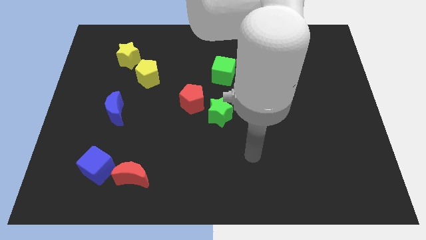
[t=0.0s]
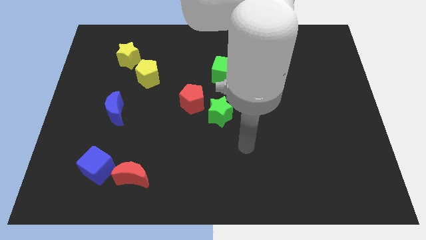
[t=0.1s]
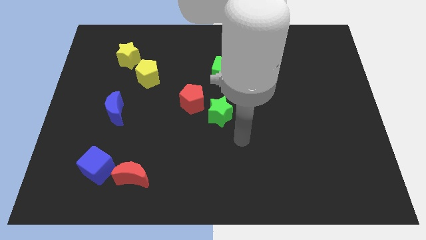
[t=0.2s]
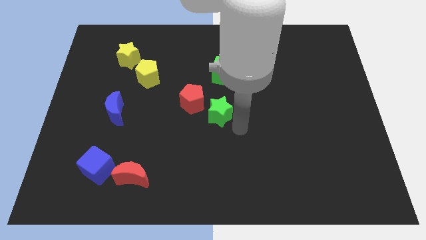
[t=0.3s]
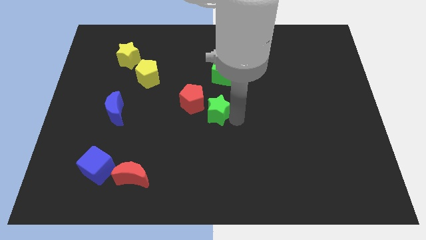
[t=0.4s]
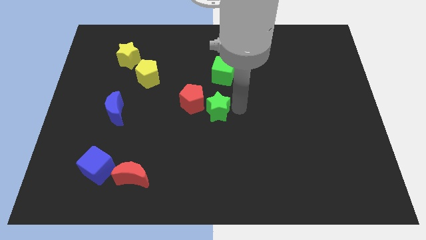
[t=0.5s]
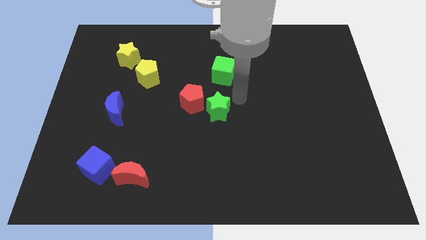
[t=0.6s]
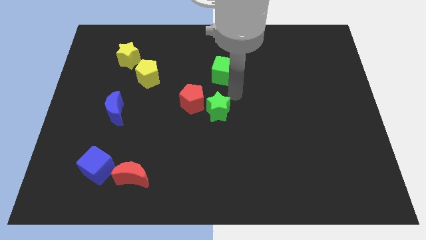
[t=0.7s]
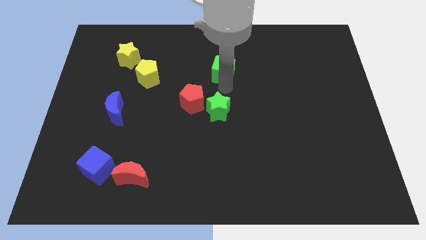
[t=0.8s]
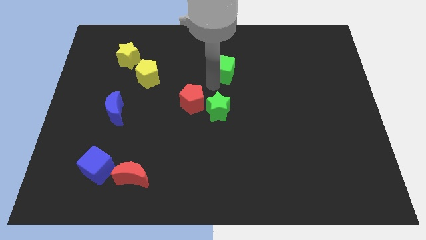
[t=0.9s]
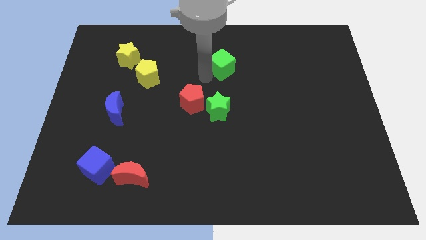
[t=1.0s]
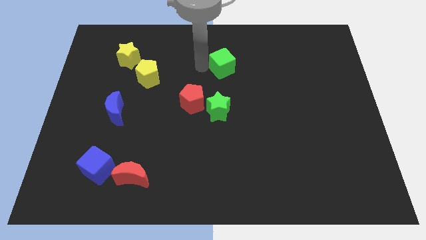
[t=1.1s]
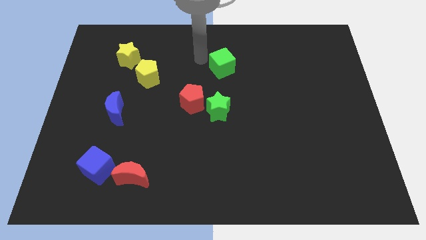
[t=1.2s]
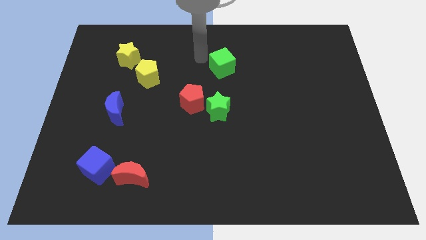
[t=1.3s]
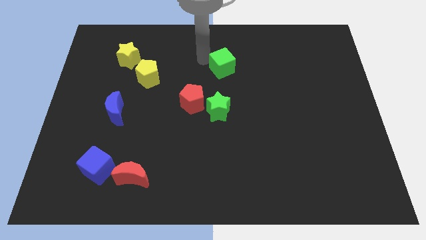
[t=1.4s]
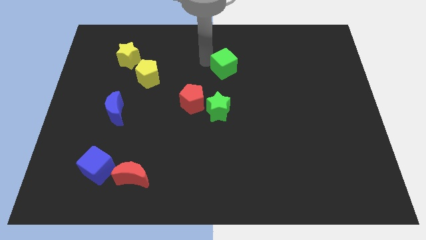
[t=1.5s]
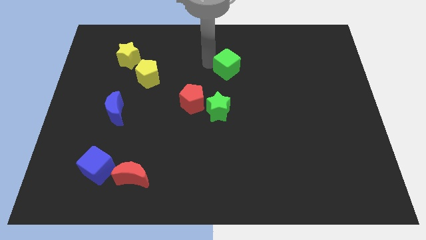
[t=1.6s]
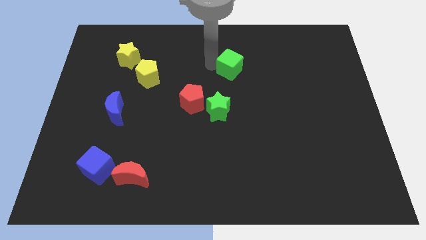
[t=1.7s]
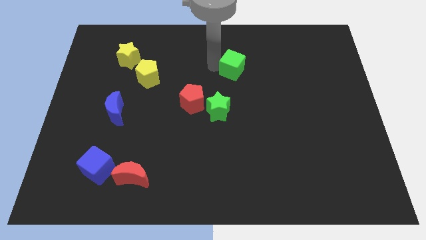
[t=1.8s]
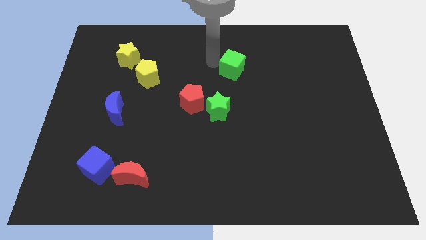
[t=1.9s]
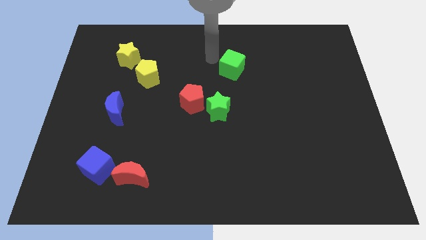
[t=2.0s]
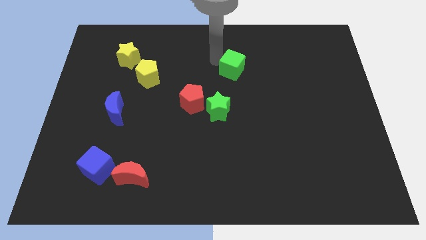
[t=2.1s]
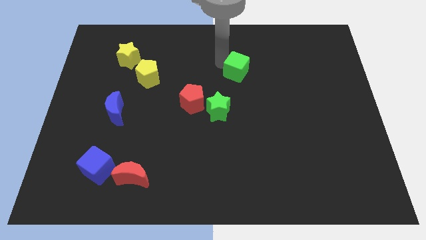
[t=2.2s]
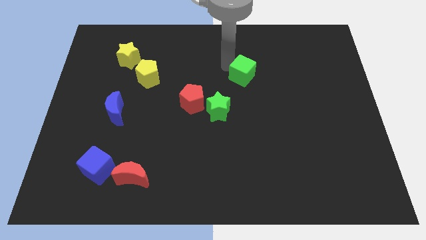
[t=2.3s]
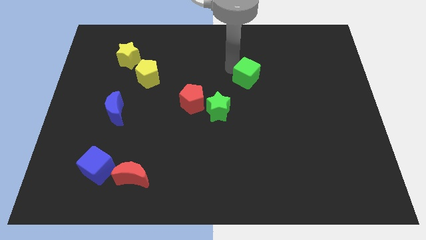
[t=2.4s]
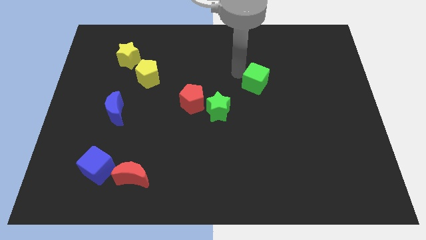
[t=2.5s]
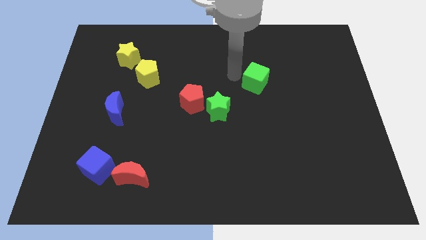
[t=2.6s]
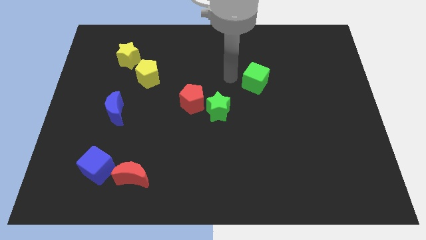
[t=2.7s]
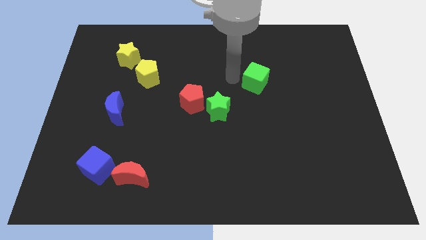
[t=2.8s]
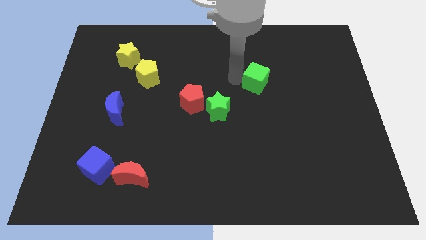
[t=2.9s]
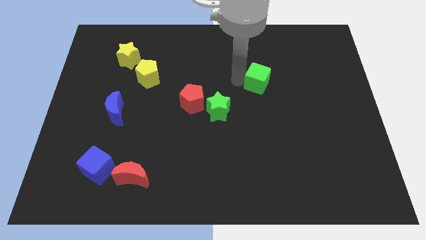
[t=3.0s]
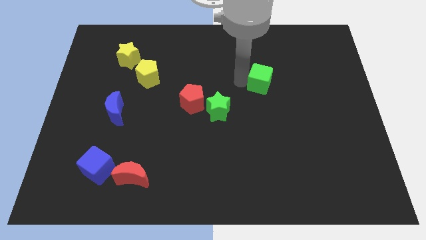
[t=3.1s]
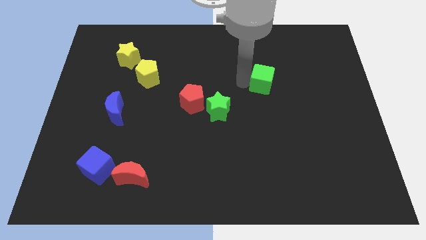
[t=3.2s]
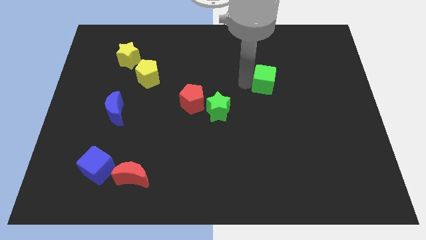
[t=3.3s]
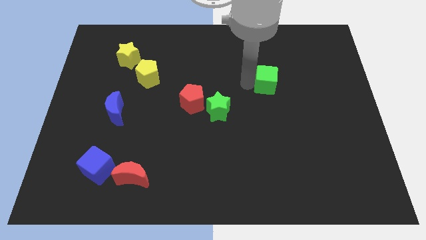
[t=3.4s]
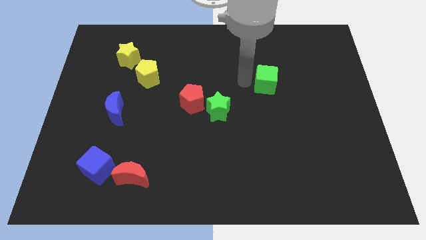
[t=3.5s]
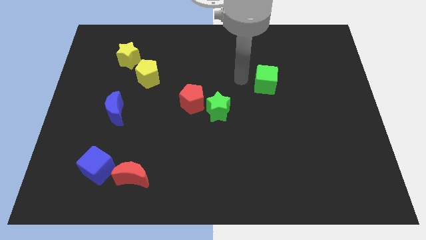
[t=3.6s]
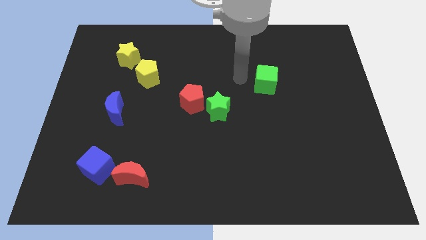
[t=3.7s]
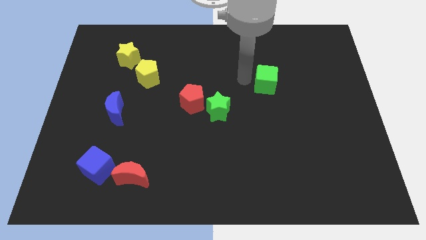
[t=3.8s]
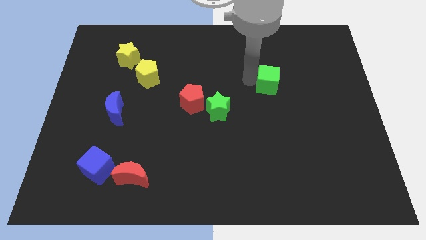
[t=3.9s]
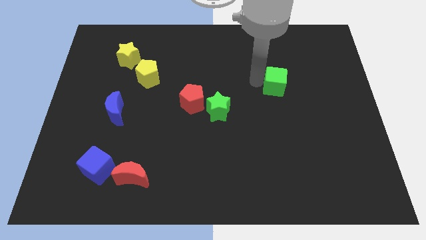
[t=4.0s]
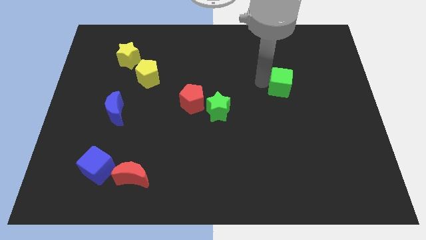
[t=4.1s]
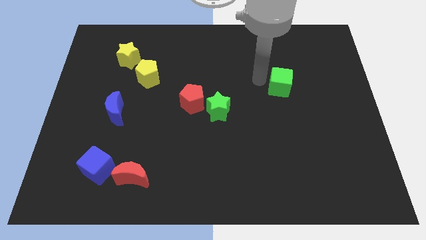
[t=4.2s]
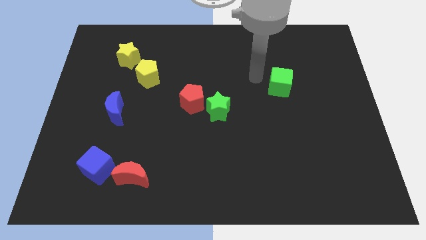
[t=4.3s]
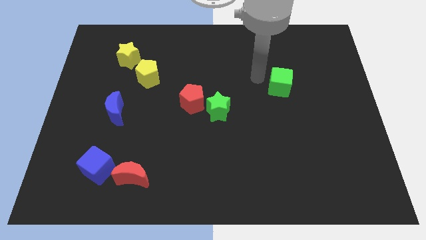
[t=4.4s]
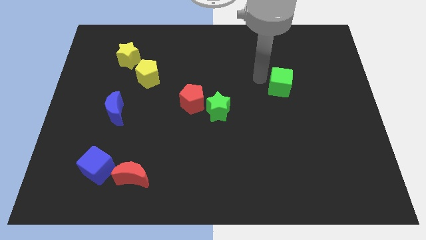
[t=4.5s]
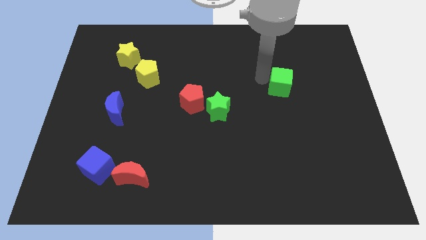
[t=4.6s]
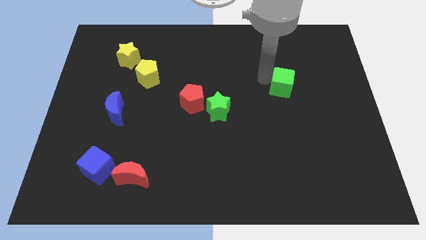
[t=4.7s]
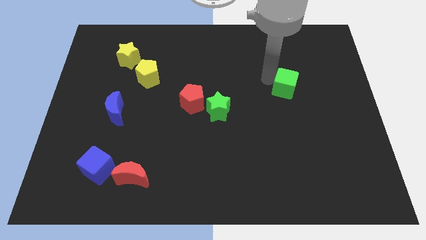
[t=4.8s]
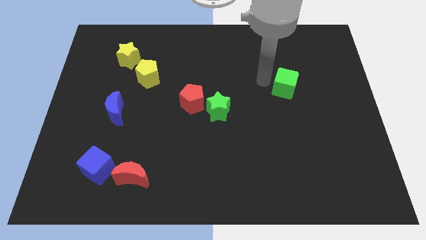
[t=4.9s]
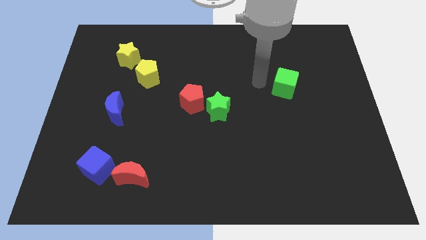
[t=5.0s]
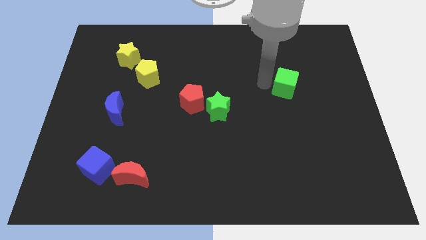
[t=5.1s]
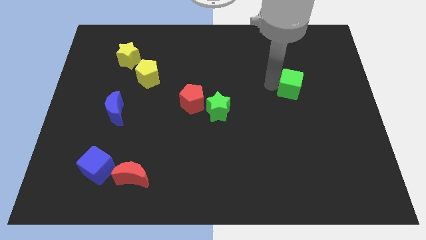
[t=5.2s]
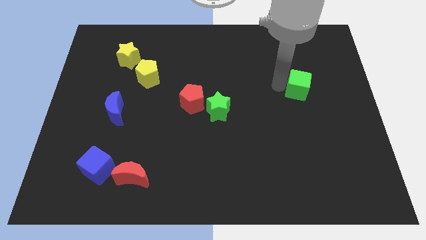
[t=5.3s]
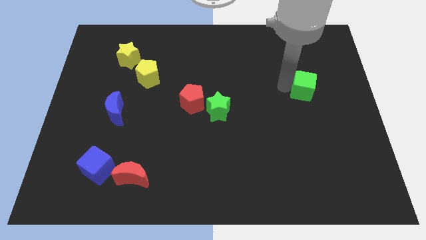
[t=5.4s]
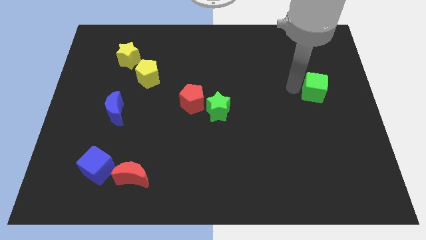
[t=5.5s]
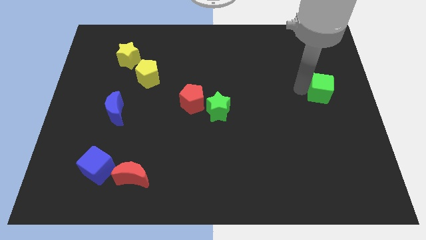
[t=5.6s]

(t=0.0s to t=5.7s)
put the green cube to the right side
